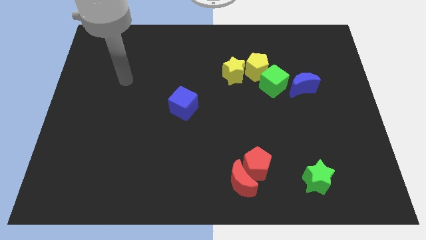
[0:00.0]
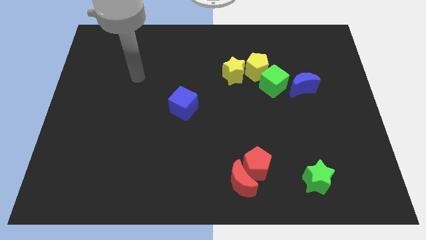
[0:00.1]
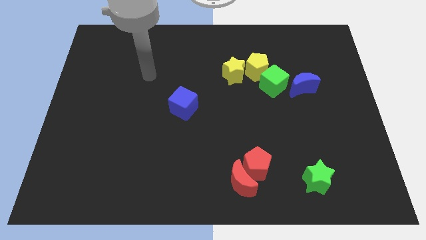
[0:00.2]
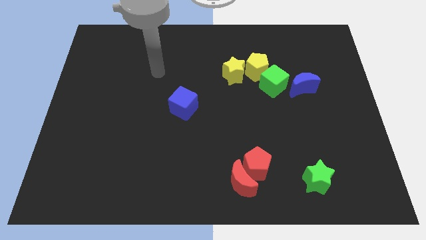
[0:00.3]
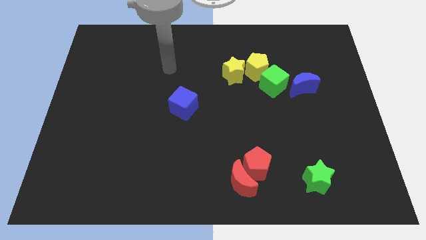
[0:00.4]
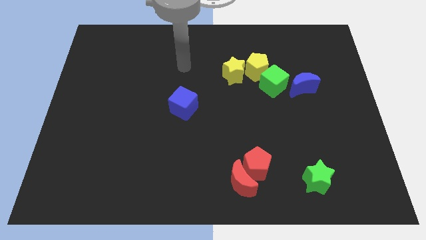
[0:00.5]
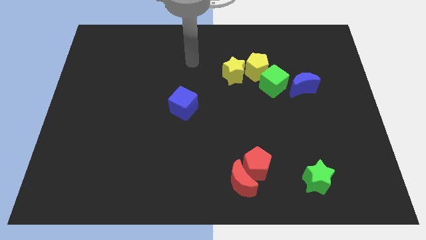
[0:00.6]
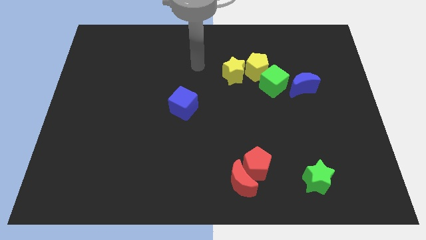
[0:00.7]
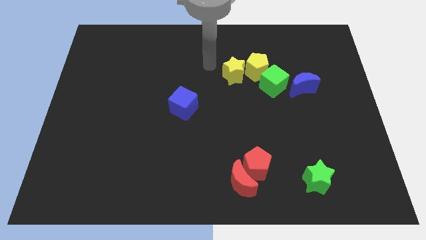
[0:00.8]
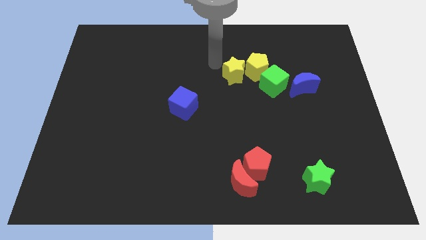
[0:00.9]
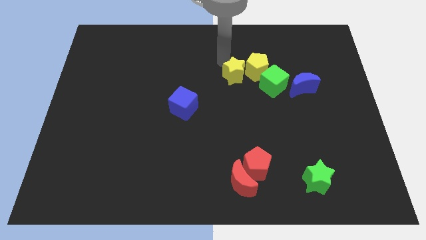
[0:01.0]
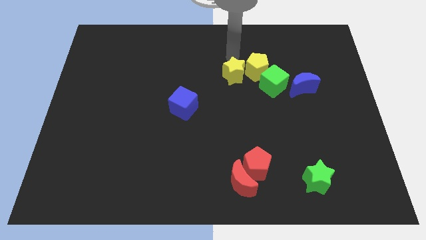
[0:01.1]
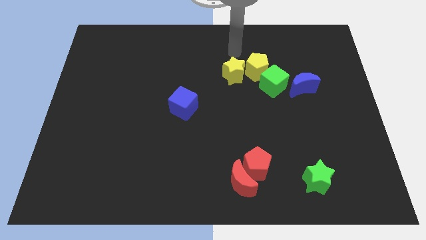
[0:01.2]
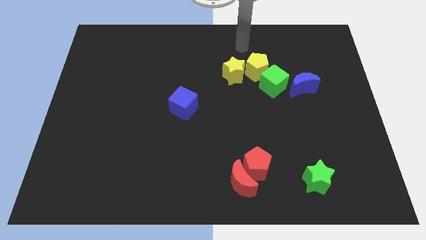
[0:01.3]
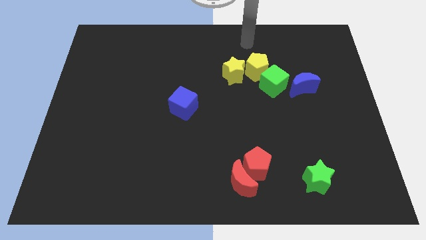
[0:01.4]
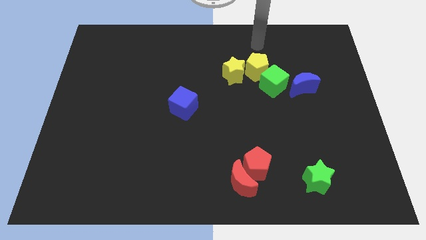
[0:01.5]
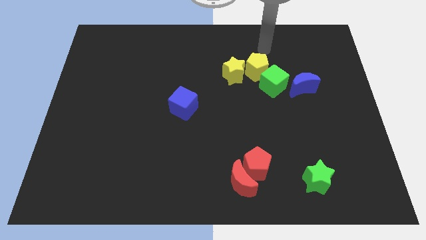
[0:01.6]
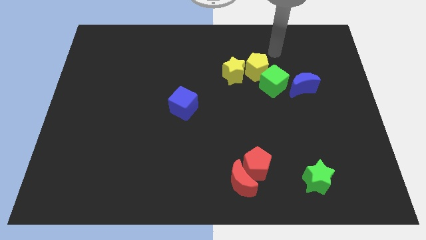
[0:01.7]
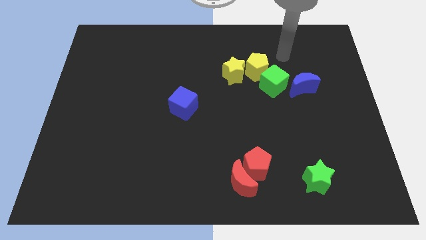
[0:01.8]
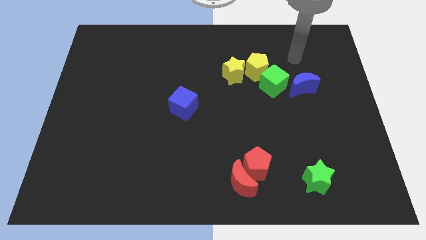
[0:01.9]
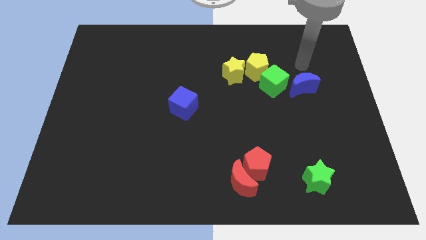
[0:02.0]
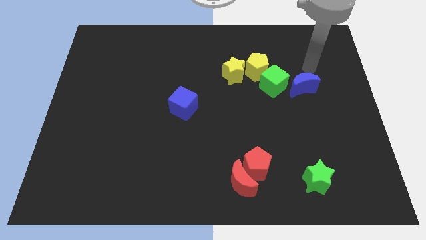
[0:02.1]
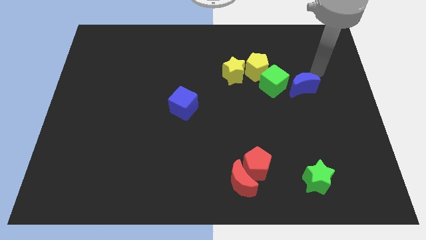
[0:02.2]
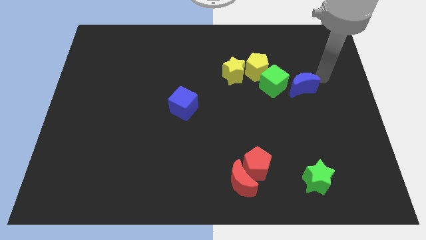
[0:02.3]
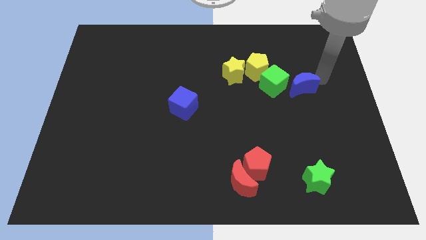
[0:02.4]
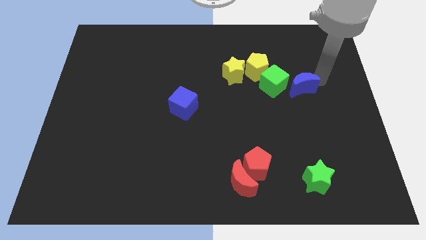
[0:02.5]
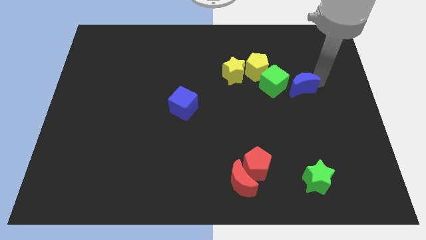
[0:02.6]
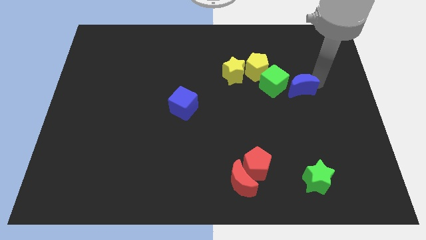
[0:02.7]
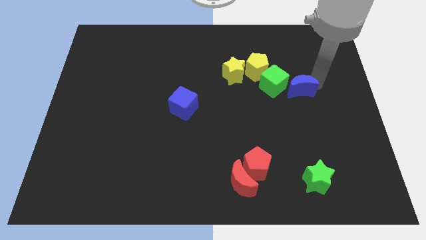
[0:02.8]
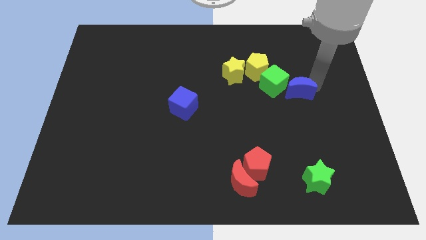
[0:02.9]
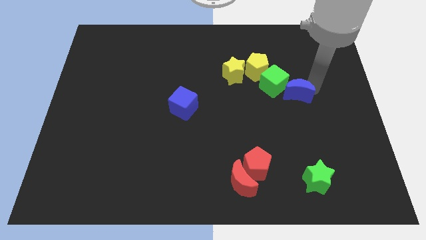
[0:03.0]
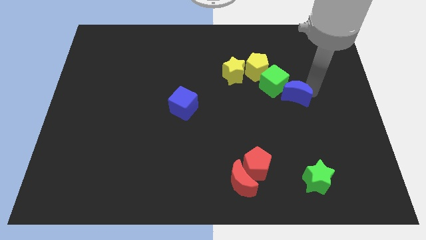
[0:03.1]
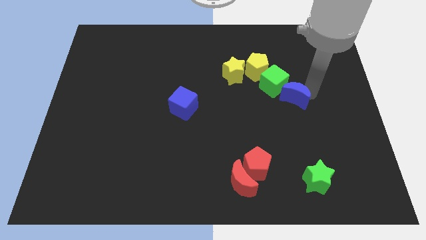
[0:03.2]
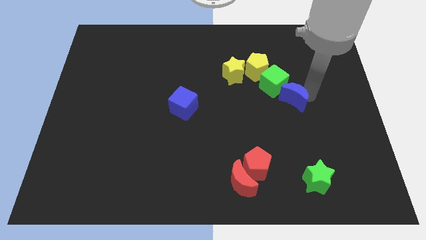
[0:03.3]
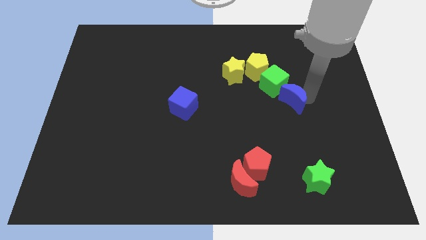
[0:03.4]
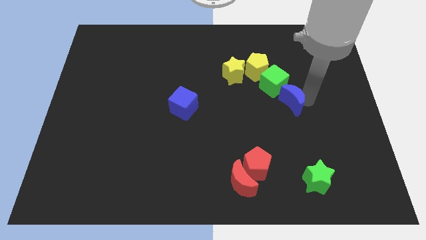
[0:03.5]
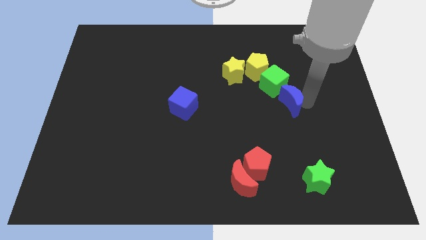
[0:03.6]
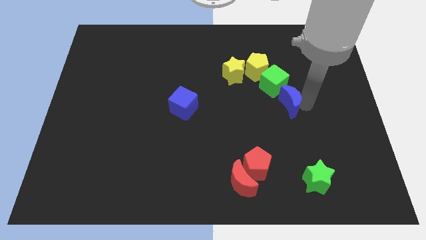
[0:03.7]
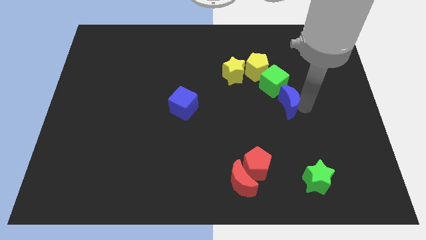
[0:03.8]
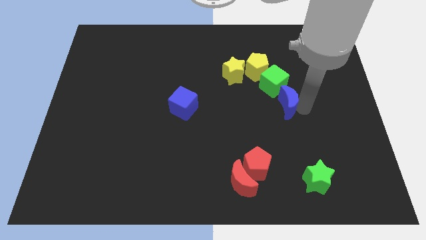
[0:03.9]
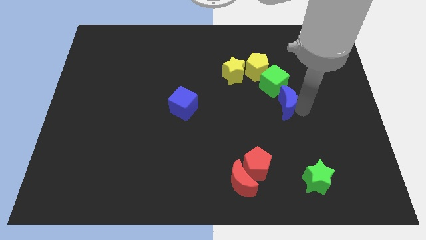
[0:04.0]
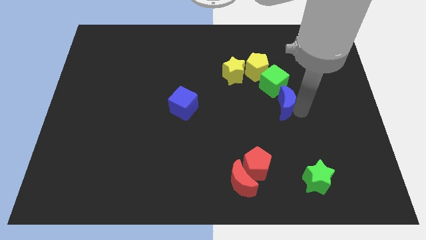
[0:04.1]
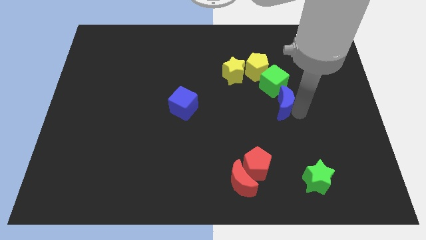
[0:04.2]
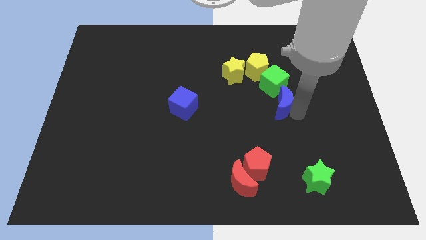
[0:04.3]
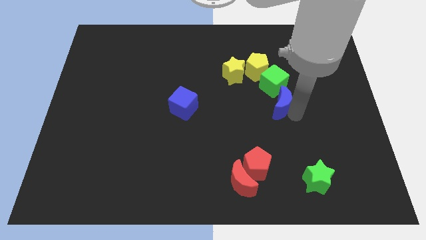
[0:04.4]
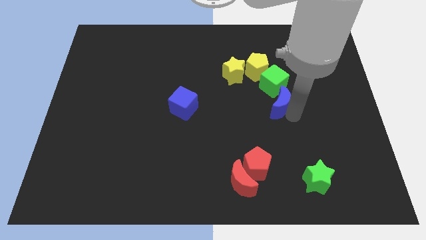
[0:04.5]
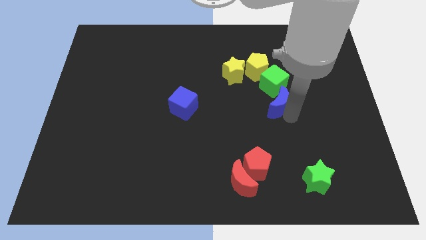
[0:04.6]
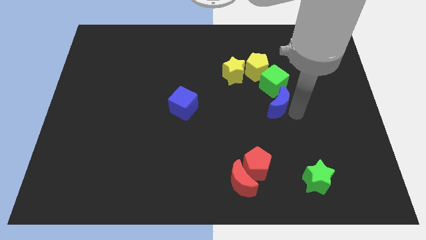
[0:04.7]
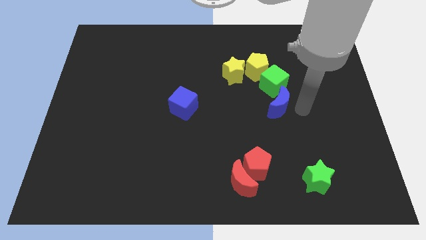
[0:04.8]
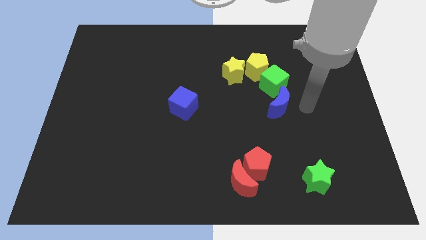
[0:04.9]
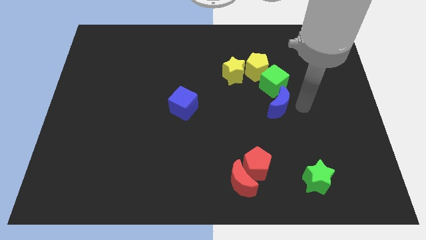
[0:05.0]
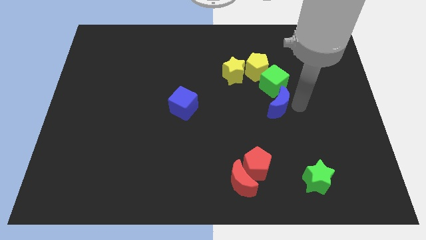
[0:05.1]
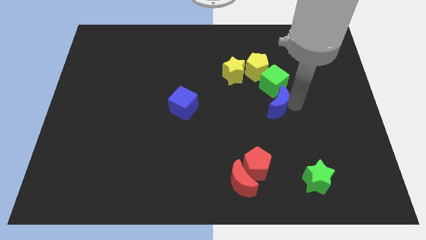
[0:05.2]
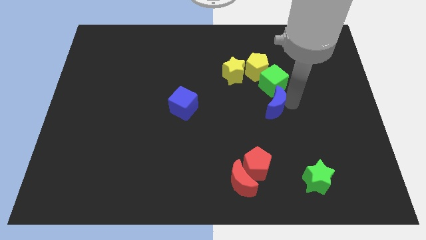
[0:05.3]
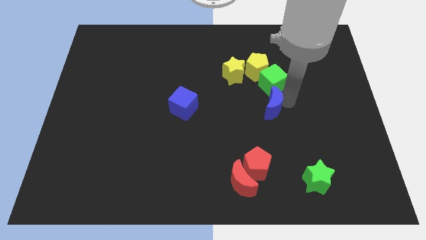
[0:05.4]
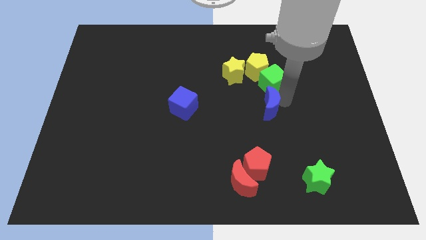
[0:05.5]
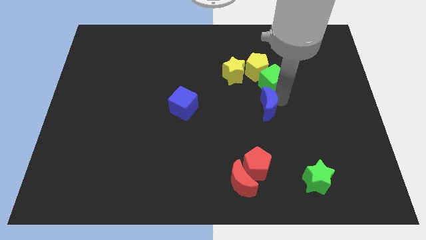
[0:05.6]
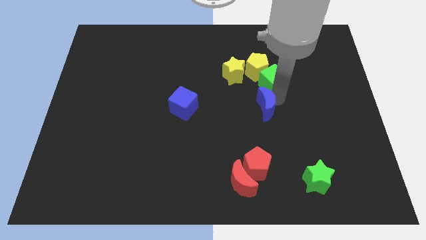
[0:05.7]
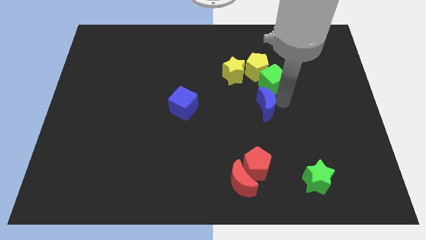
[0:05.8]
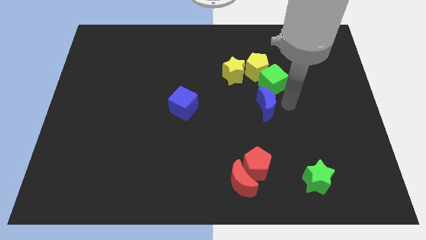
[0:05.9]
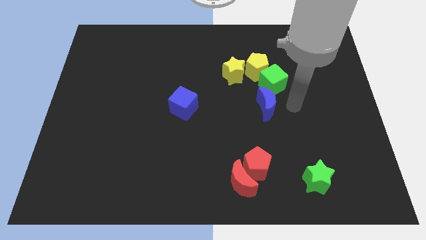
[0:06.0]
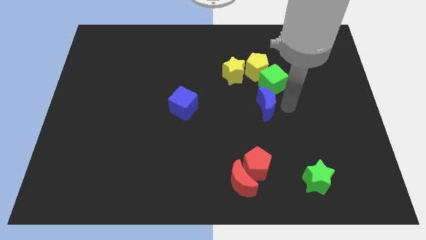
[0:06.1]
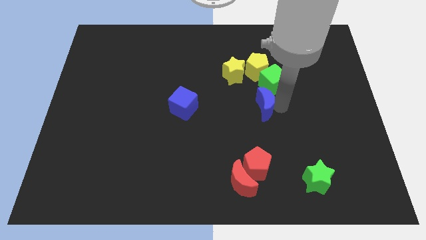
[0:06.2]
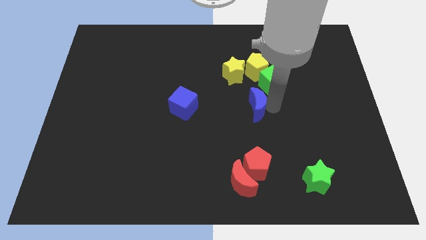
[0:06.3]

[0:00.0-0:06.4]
move the blue moon to the bottom of the yellow star

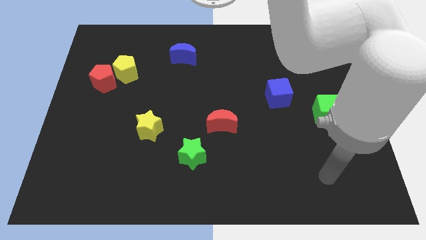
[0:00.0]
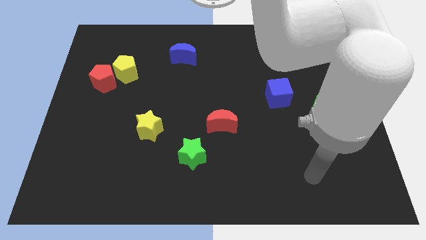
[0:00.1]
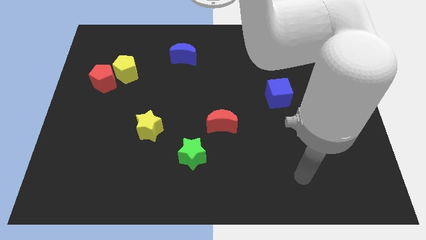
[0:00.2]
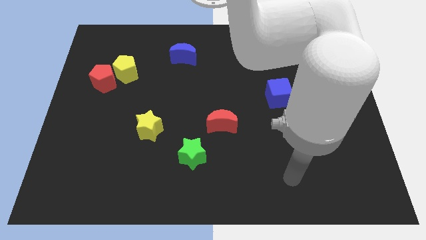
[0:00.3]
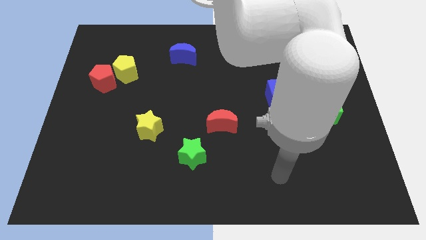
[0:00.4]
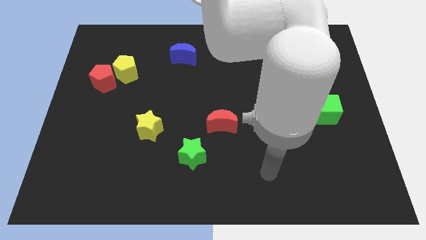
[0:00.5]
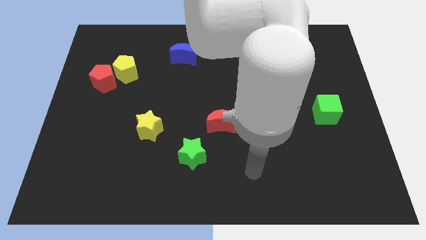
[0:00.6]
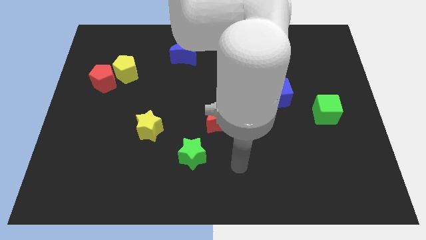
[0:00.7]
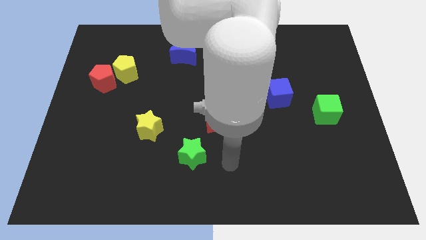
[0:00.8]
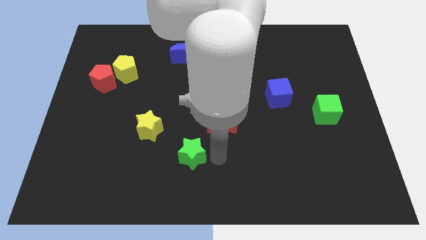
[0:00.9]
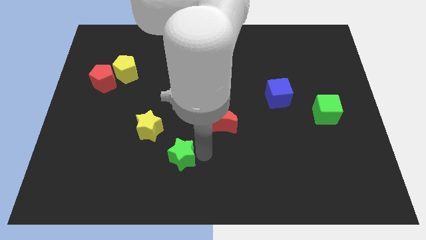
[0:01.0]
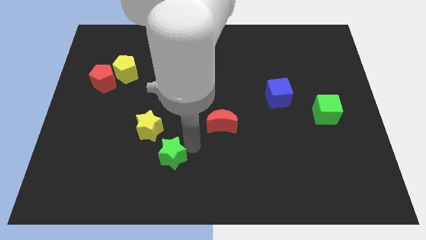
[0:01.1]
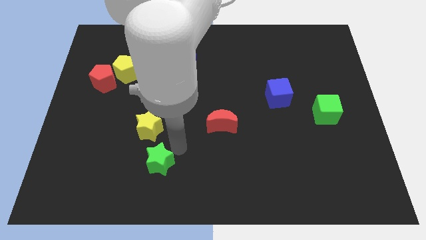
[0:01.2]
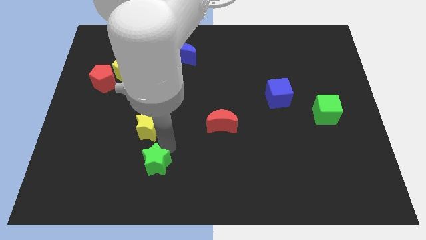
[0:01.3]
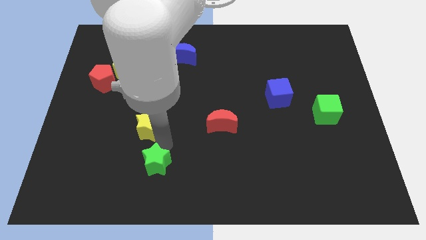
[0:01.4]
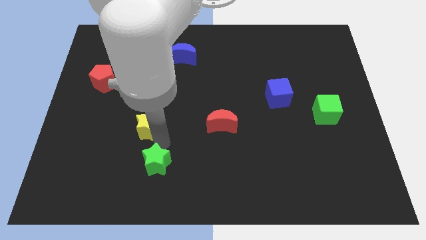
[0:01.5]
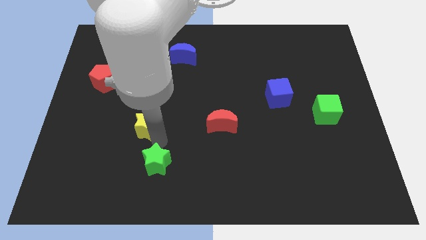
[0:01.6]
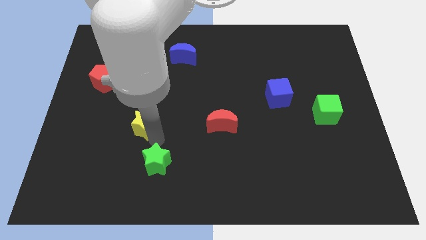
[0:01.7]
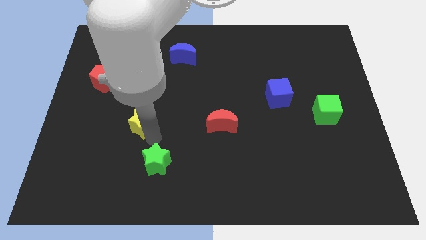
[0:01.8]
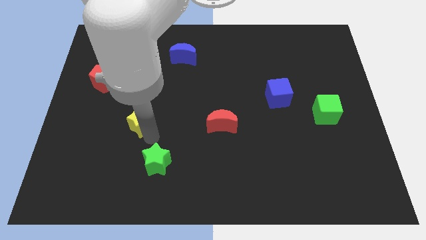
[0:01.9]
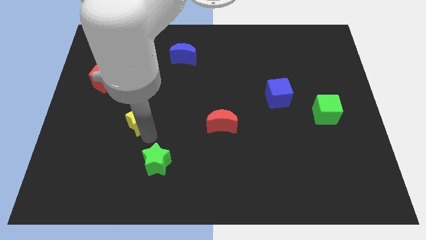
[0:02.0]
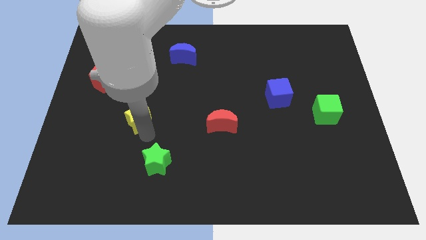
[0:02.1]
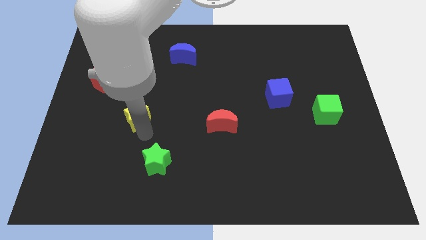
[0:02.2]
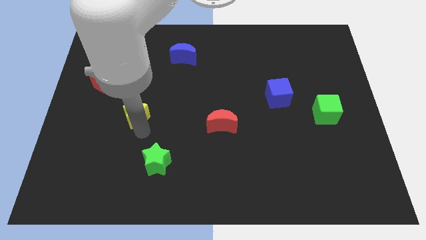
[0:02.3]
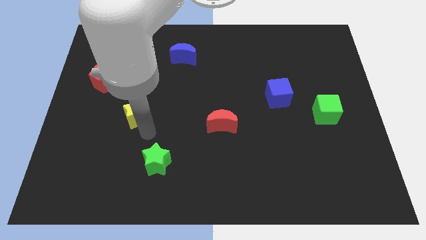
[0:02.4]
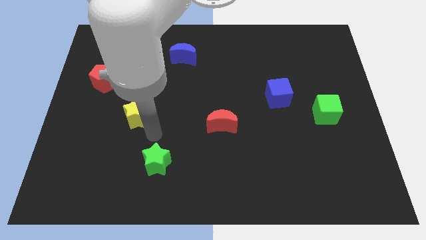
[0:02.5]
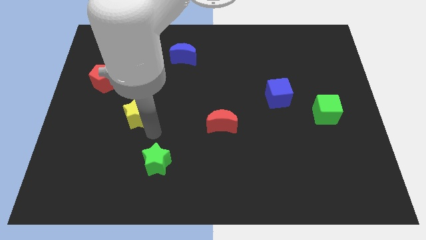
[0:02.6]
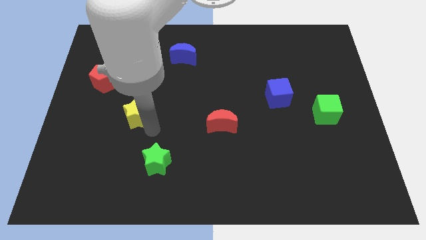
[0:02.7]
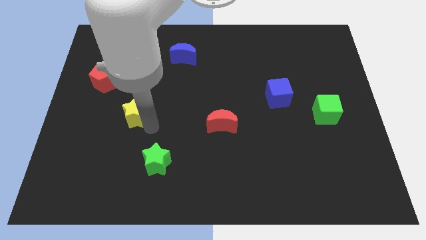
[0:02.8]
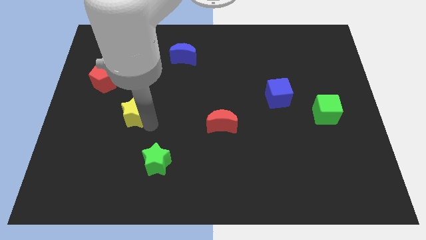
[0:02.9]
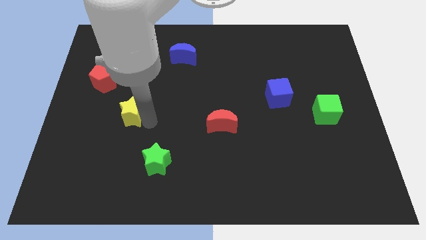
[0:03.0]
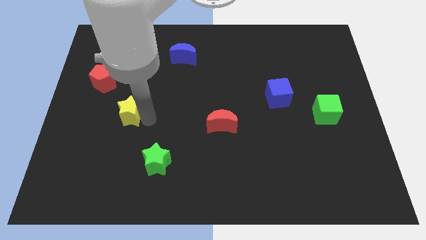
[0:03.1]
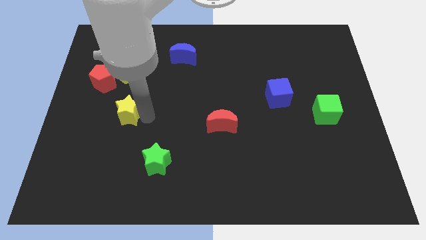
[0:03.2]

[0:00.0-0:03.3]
slide the yellow star to the bottom right of the red pentagon
